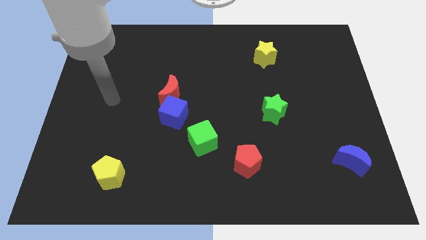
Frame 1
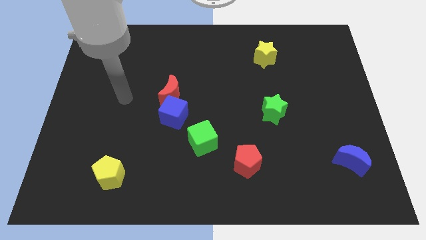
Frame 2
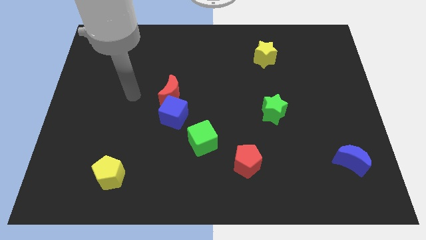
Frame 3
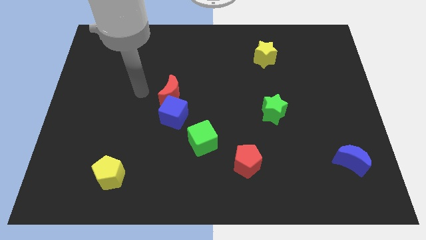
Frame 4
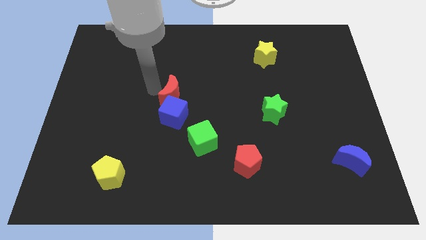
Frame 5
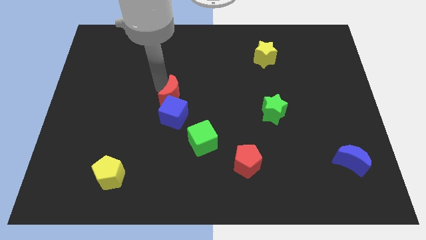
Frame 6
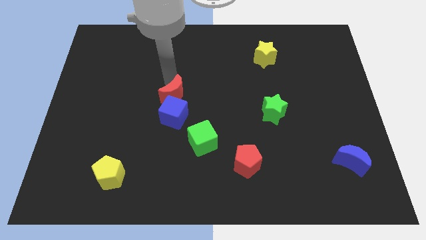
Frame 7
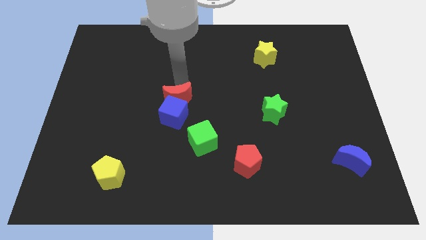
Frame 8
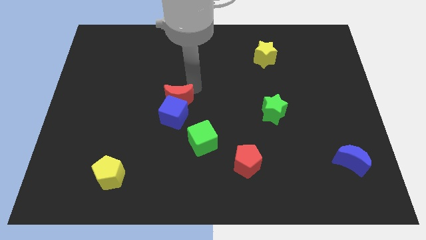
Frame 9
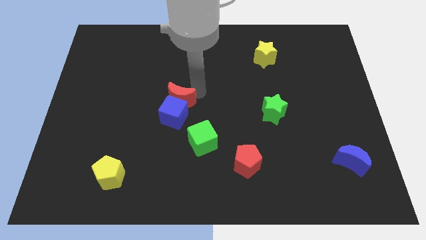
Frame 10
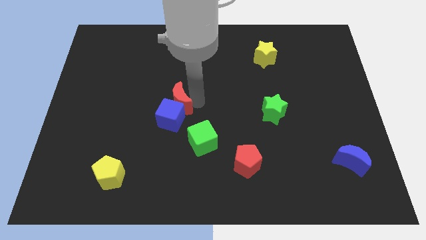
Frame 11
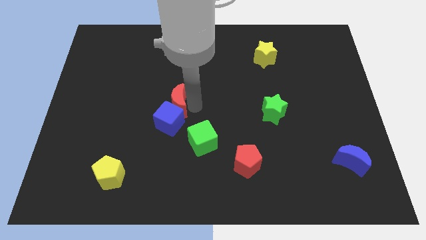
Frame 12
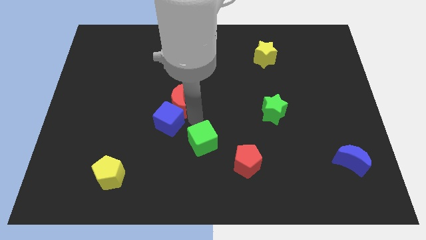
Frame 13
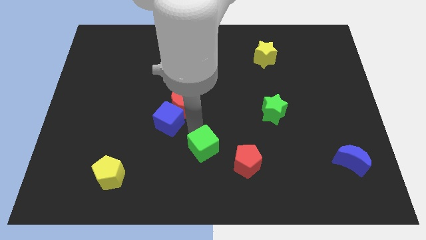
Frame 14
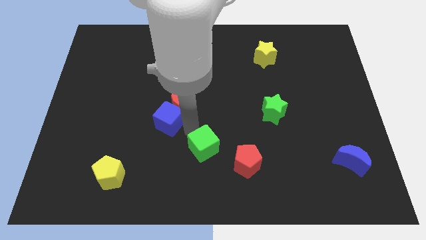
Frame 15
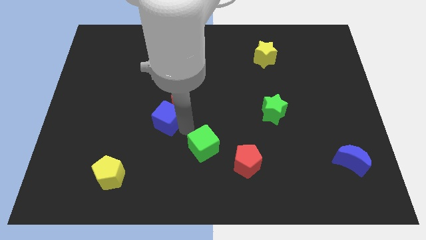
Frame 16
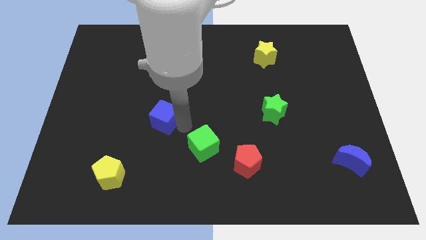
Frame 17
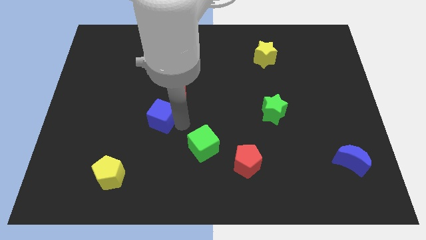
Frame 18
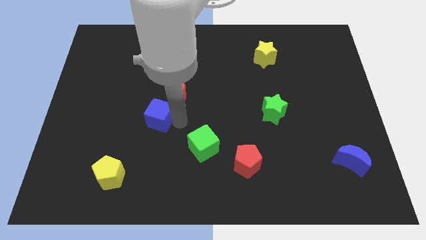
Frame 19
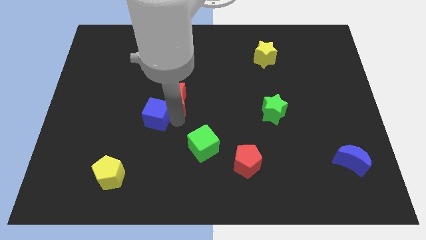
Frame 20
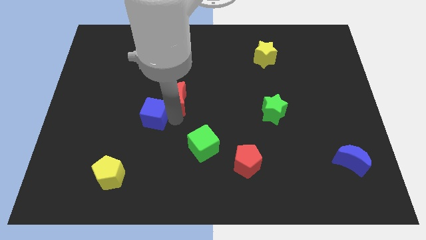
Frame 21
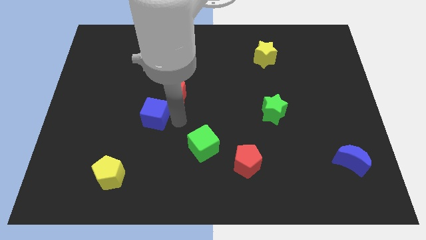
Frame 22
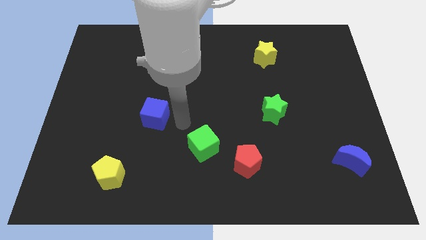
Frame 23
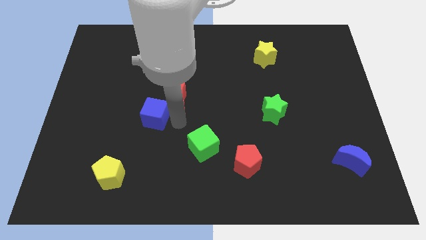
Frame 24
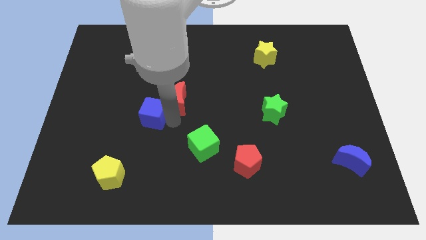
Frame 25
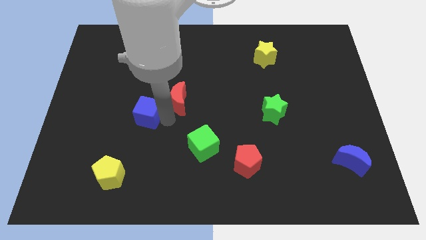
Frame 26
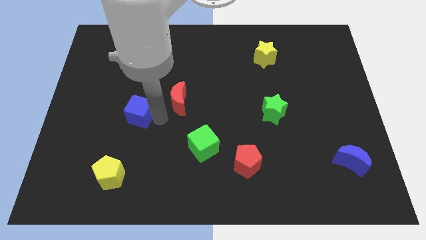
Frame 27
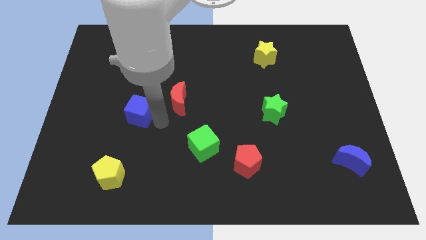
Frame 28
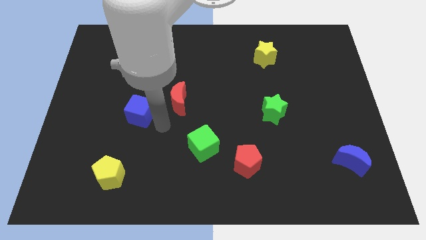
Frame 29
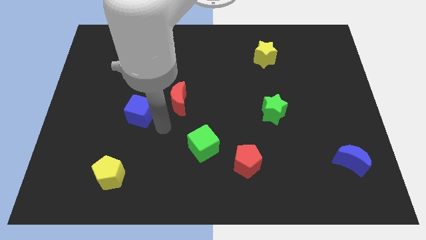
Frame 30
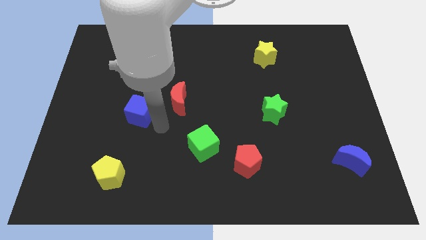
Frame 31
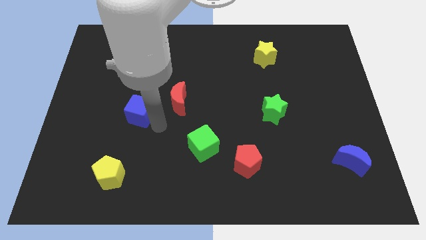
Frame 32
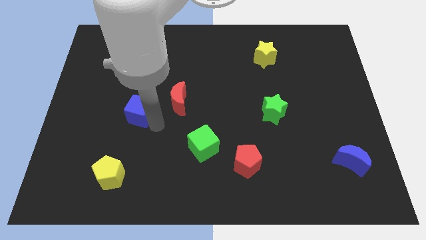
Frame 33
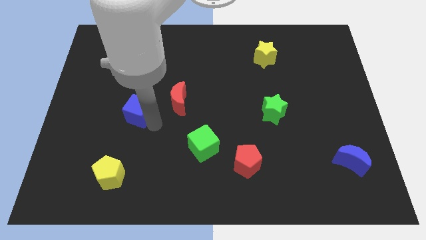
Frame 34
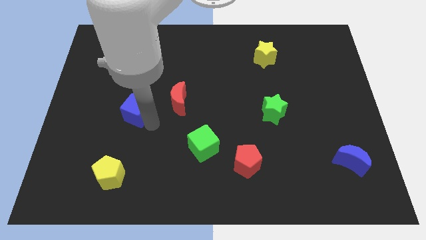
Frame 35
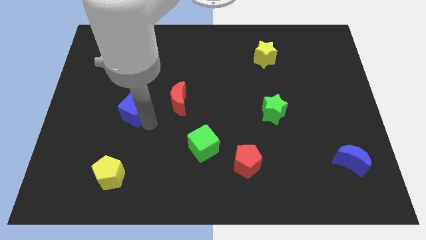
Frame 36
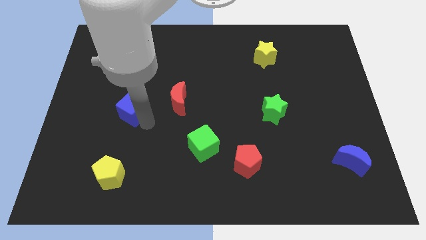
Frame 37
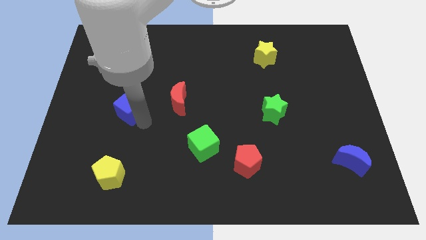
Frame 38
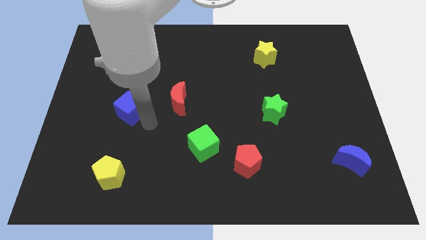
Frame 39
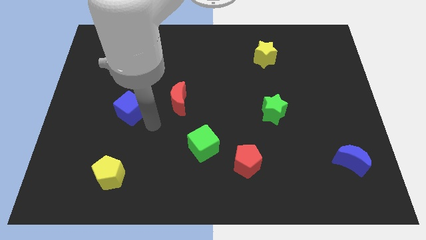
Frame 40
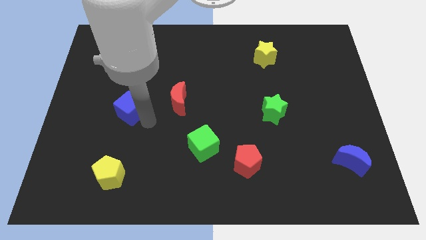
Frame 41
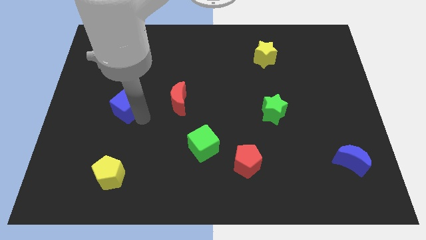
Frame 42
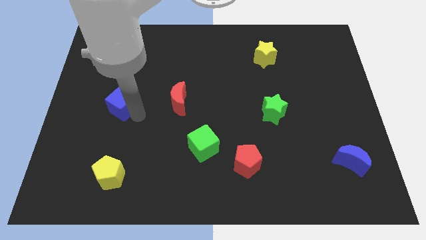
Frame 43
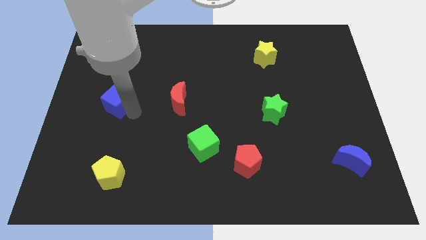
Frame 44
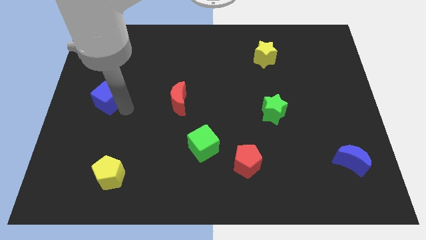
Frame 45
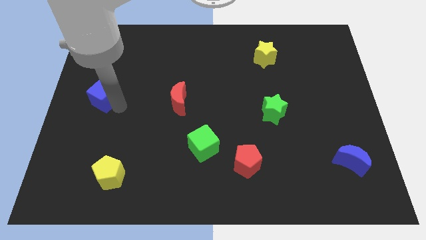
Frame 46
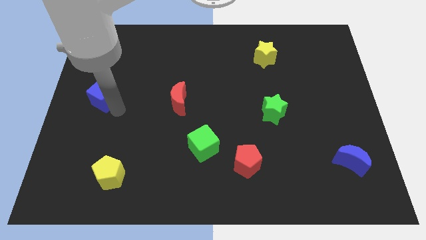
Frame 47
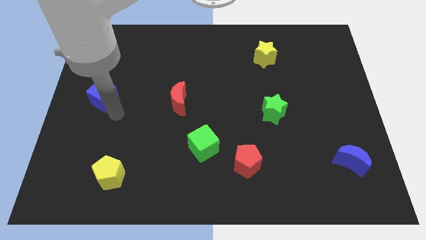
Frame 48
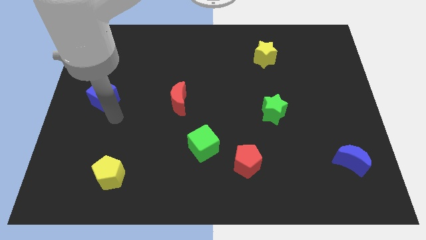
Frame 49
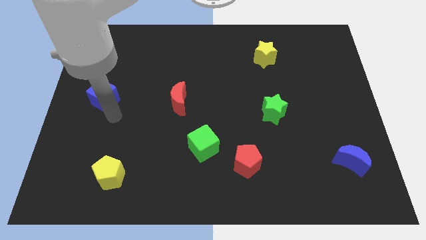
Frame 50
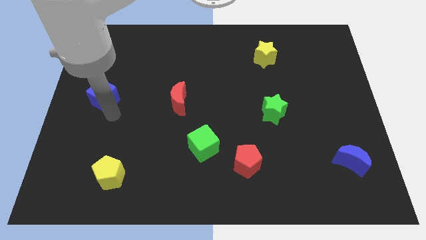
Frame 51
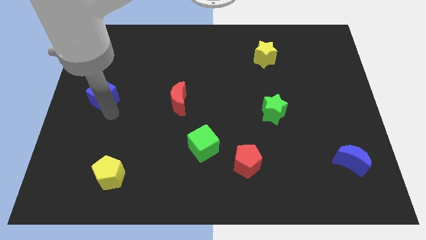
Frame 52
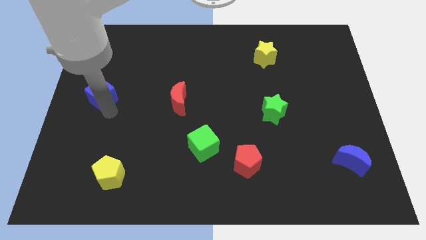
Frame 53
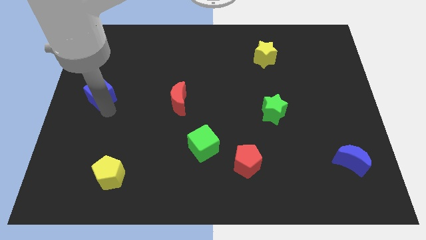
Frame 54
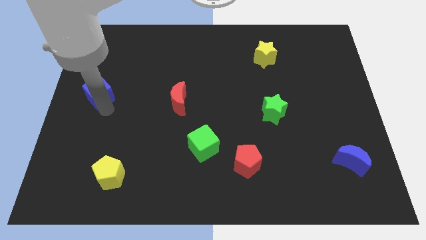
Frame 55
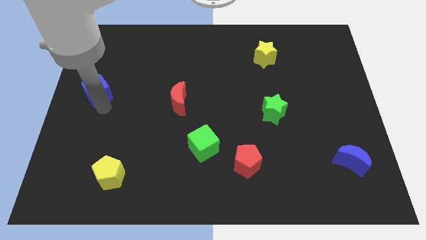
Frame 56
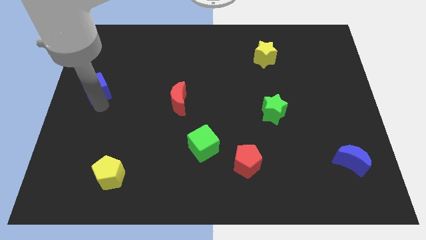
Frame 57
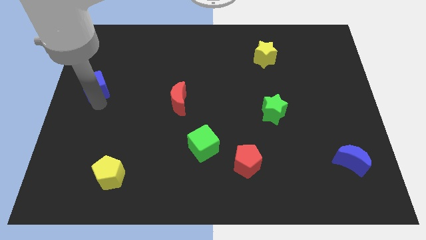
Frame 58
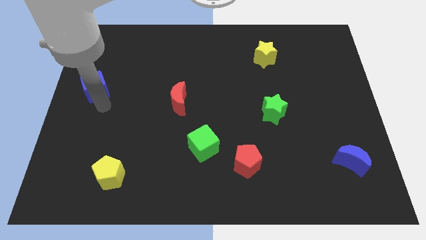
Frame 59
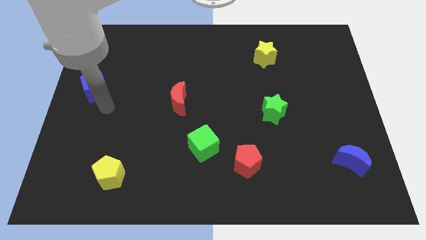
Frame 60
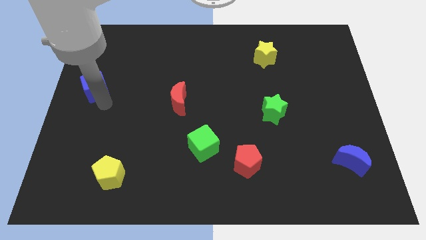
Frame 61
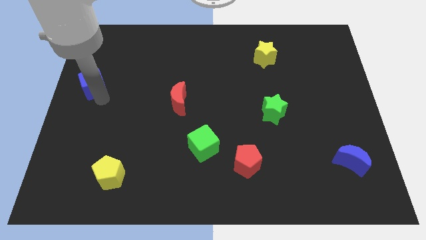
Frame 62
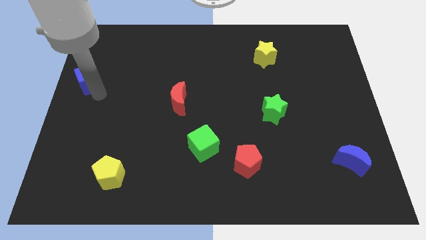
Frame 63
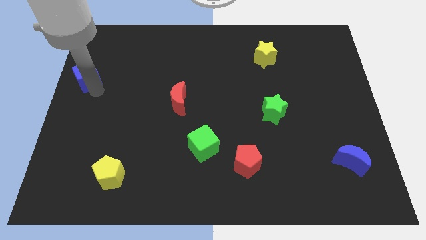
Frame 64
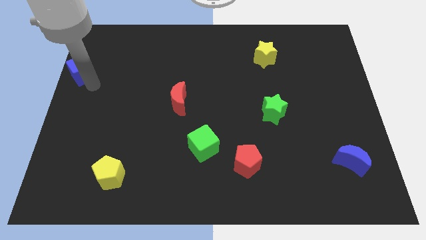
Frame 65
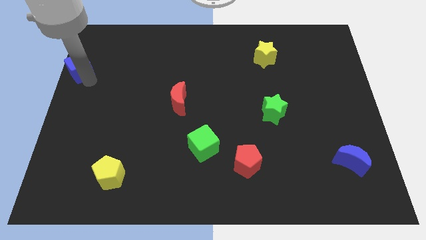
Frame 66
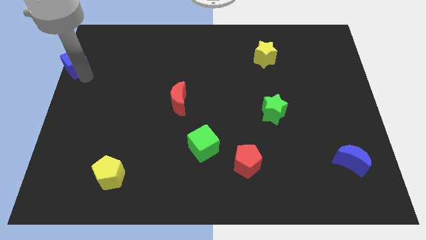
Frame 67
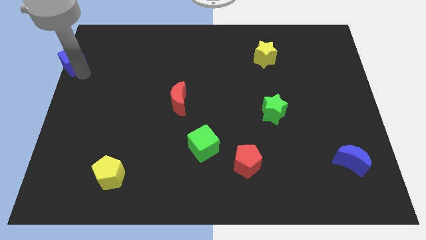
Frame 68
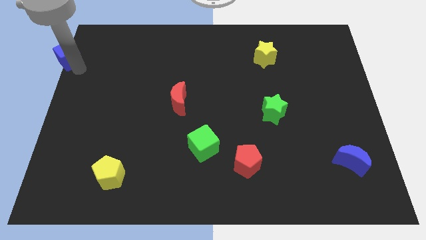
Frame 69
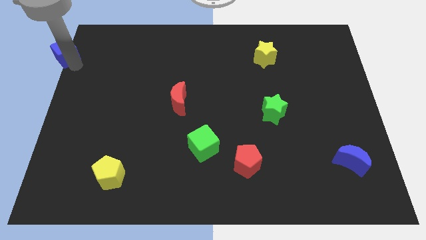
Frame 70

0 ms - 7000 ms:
slide the blue cube to the top left of the board
